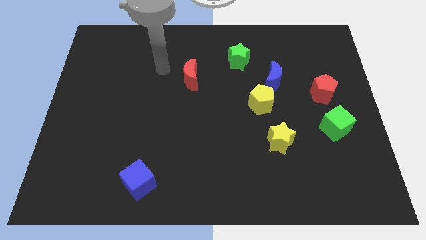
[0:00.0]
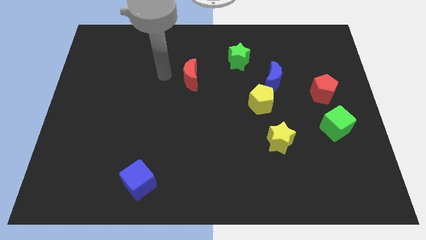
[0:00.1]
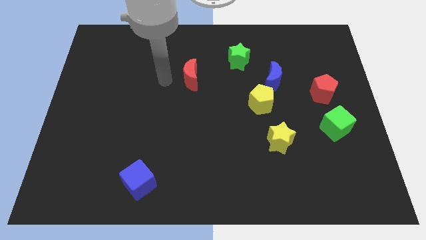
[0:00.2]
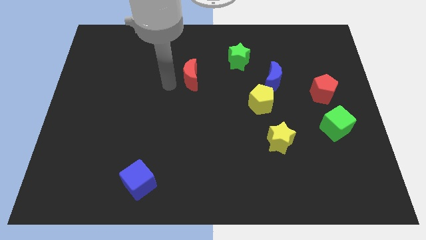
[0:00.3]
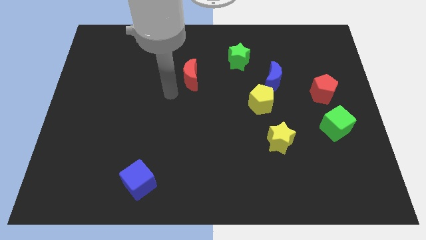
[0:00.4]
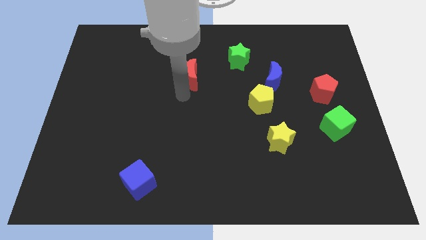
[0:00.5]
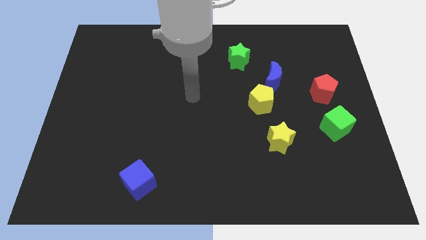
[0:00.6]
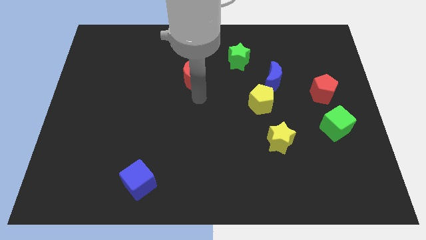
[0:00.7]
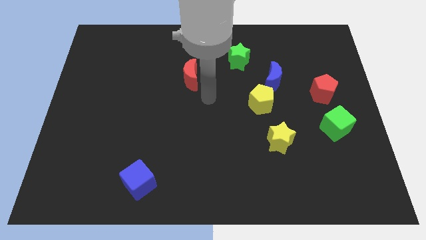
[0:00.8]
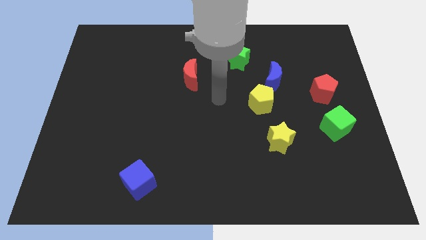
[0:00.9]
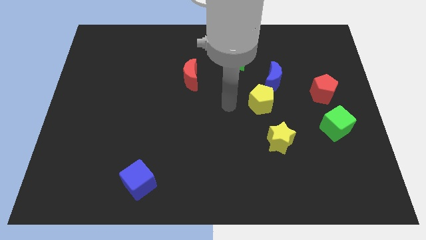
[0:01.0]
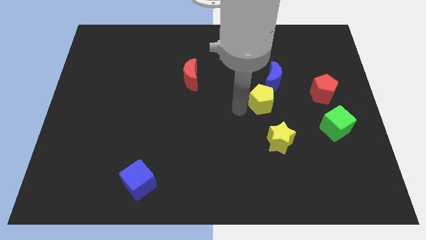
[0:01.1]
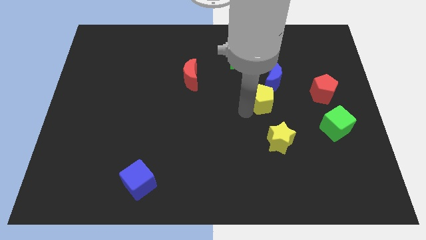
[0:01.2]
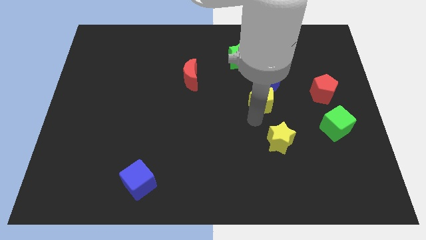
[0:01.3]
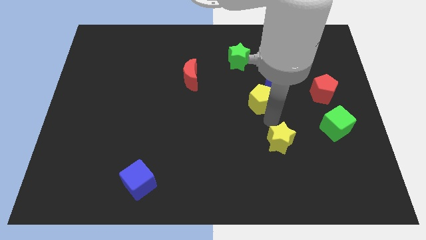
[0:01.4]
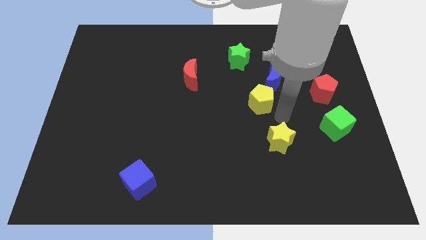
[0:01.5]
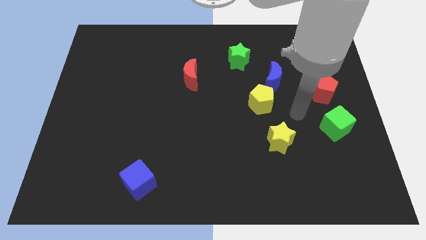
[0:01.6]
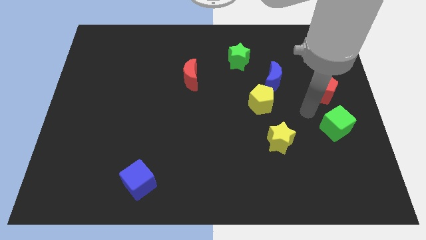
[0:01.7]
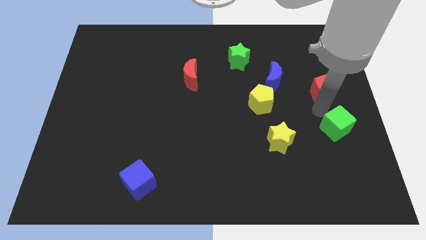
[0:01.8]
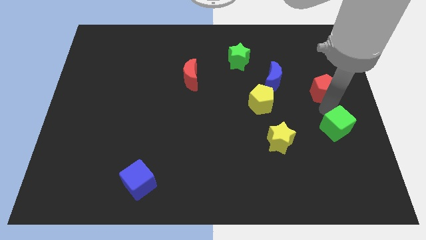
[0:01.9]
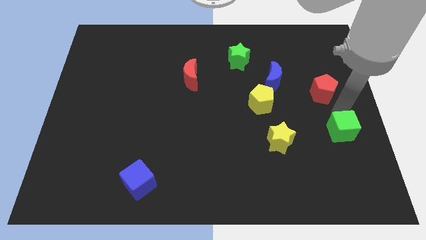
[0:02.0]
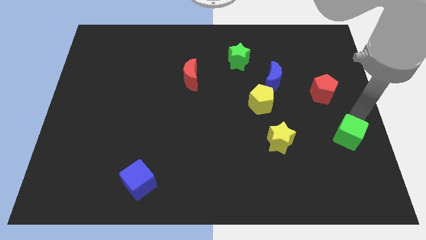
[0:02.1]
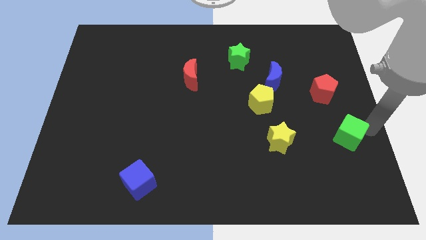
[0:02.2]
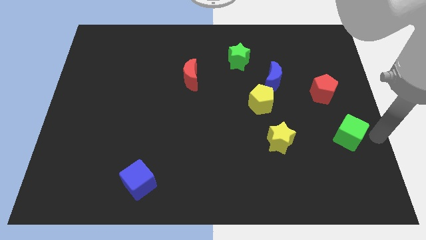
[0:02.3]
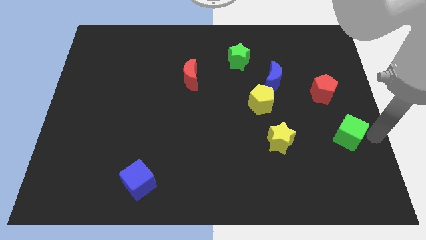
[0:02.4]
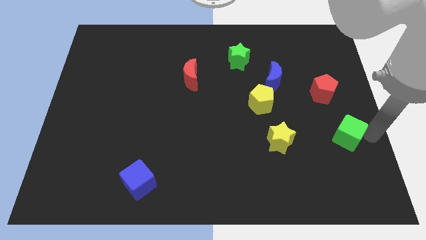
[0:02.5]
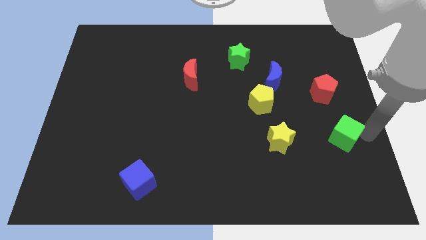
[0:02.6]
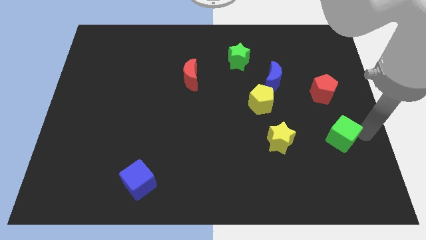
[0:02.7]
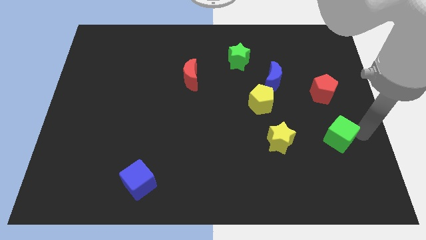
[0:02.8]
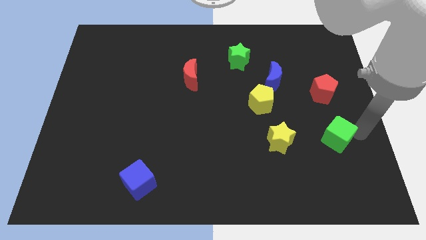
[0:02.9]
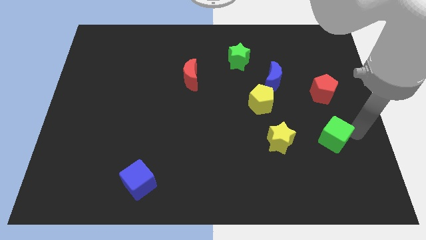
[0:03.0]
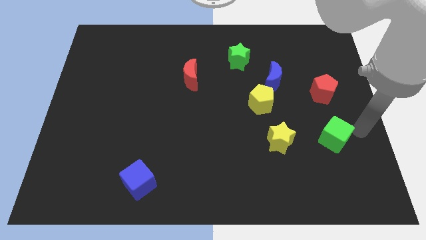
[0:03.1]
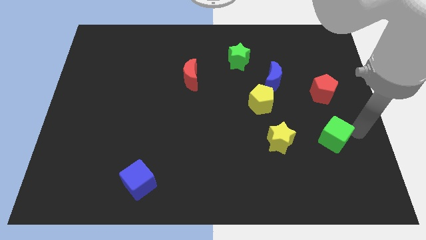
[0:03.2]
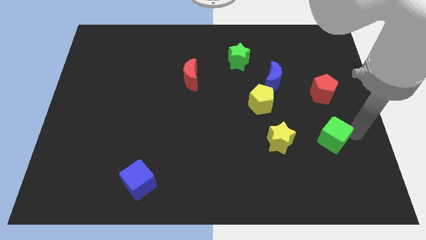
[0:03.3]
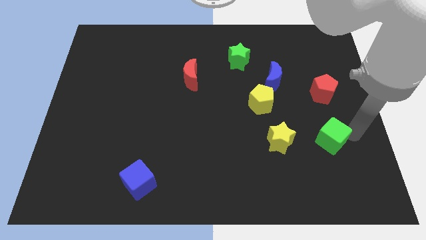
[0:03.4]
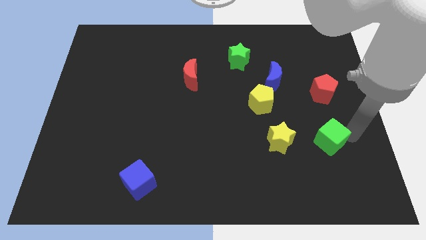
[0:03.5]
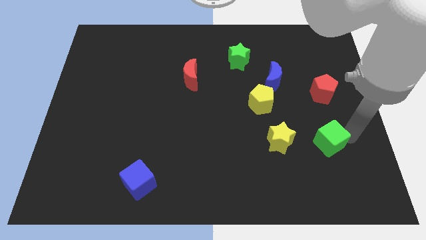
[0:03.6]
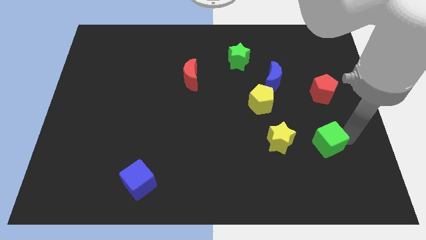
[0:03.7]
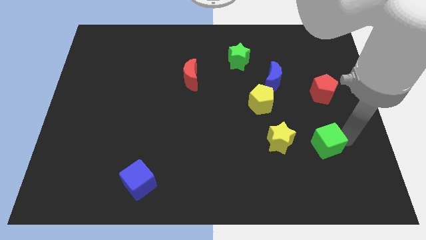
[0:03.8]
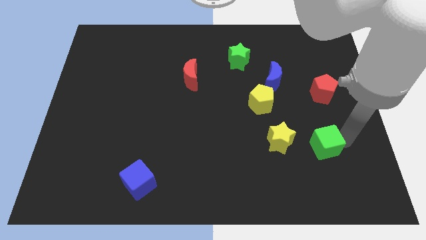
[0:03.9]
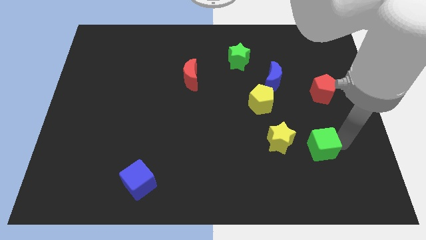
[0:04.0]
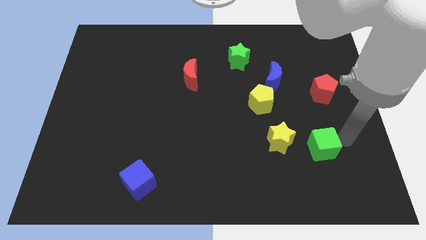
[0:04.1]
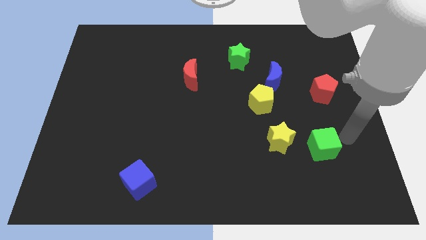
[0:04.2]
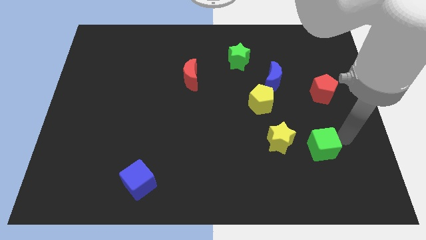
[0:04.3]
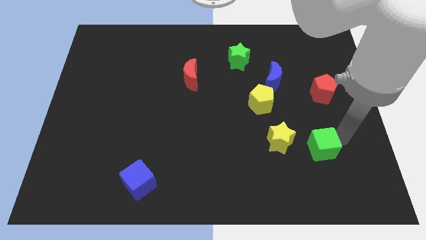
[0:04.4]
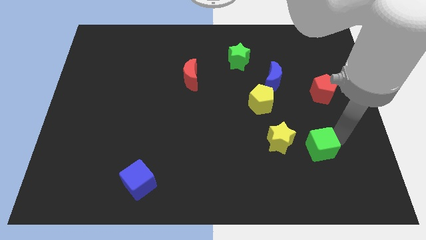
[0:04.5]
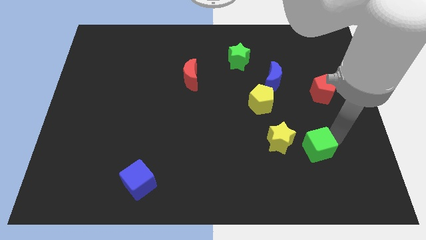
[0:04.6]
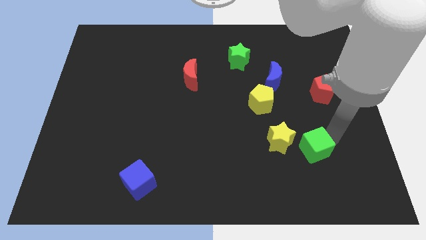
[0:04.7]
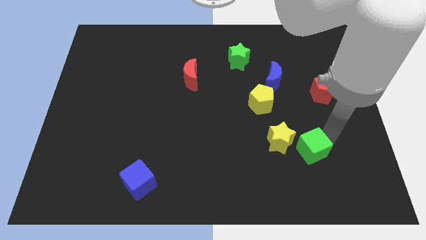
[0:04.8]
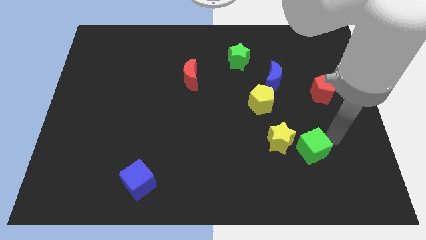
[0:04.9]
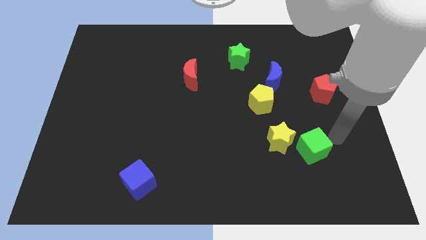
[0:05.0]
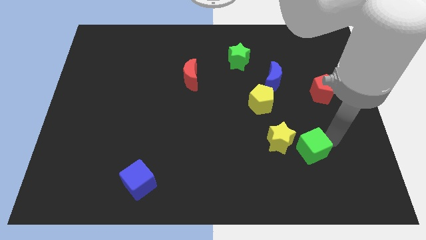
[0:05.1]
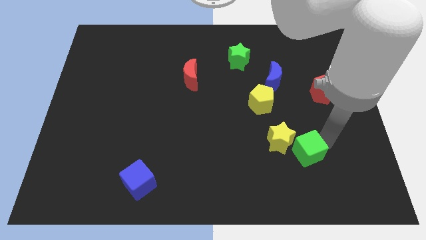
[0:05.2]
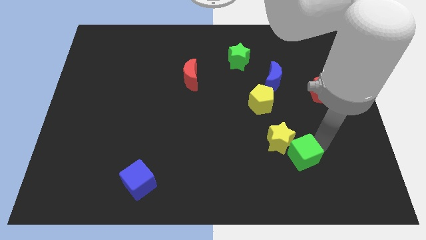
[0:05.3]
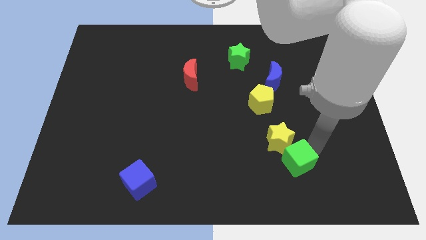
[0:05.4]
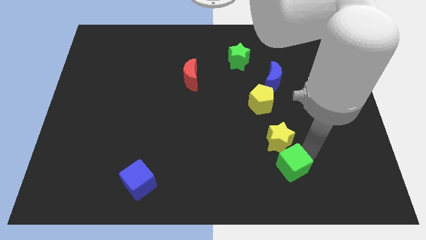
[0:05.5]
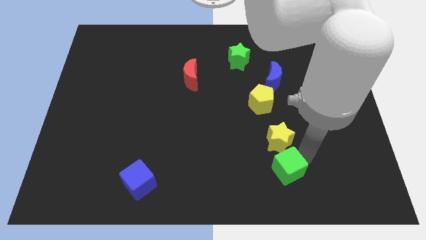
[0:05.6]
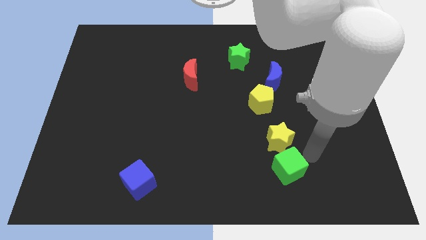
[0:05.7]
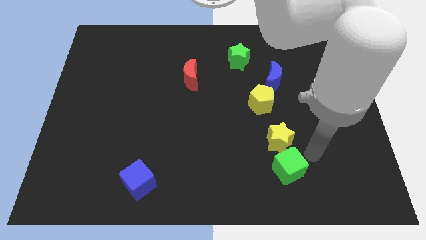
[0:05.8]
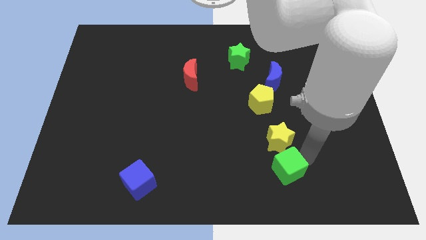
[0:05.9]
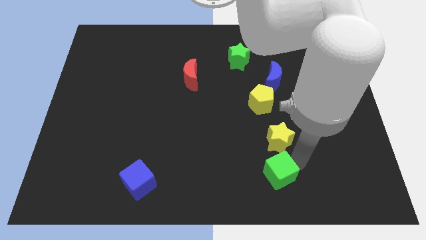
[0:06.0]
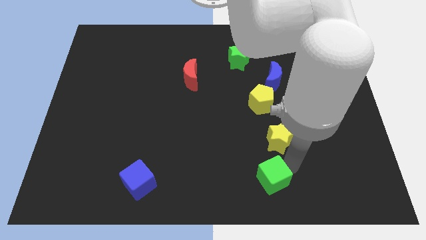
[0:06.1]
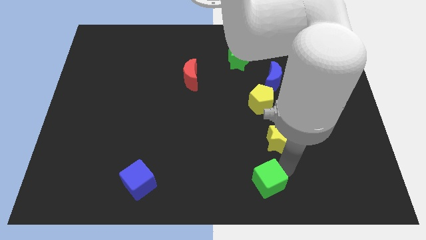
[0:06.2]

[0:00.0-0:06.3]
slide the green cube to the bottom side
